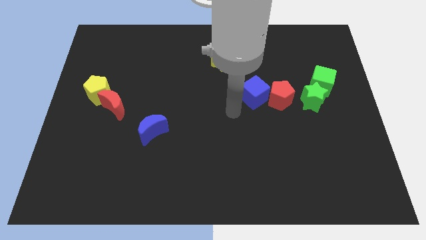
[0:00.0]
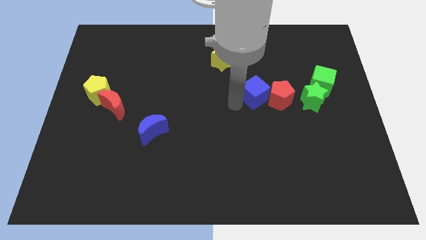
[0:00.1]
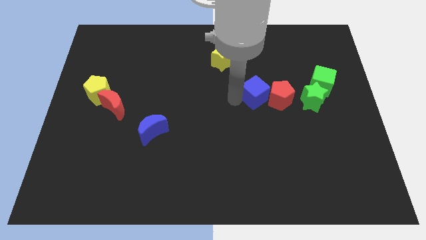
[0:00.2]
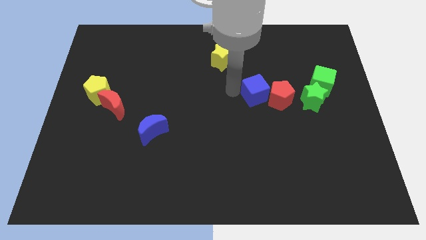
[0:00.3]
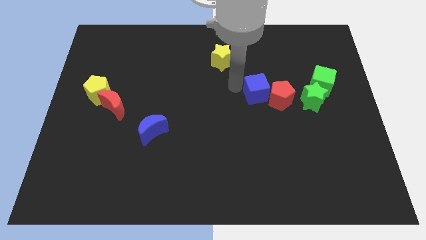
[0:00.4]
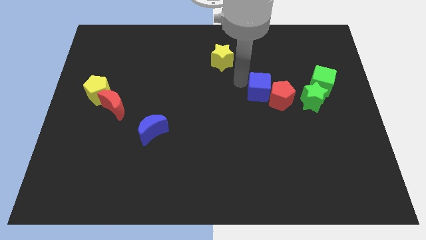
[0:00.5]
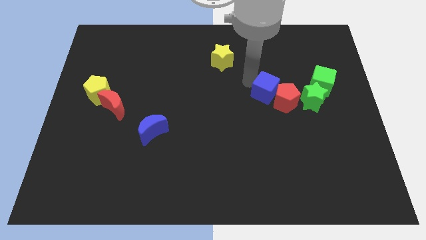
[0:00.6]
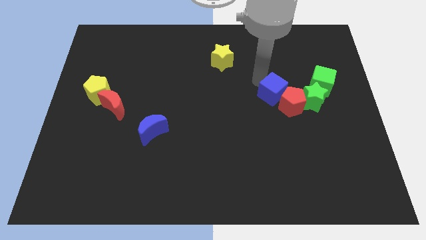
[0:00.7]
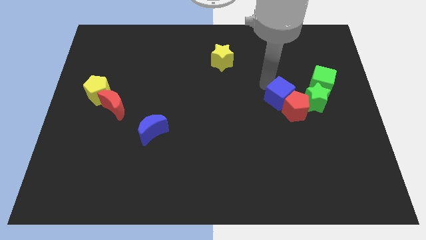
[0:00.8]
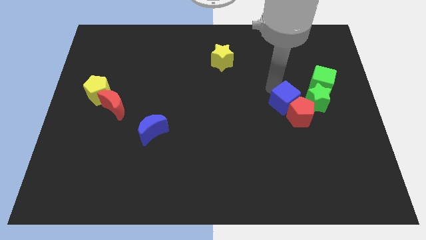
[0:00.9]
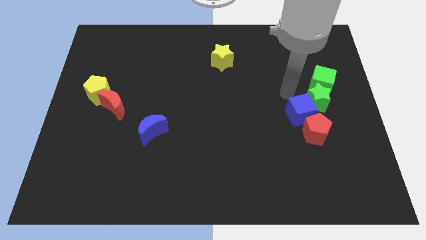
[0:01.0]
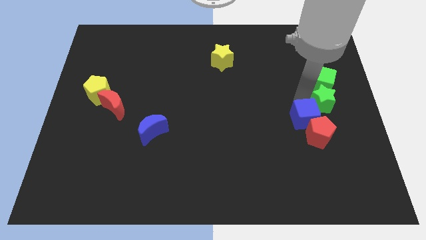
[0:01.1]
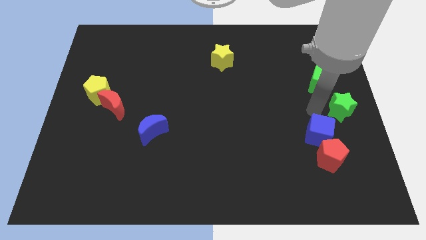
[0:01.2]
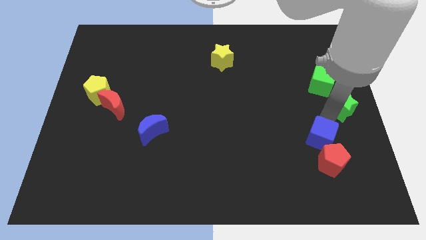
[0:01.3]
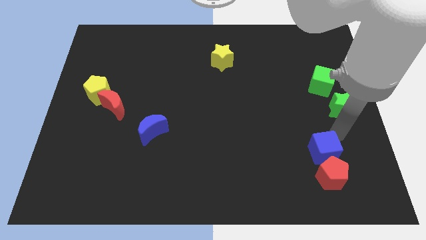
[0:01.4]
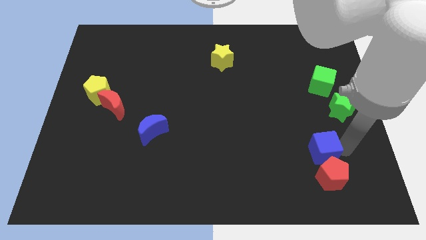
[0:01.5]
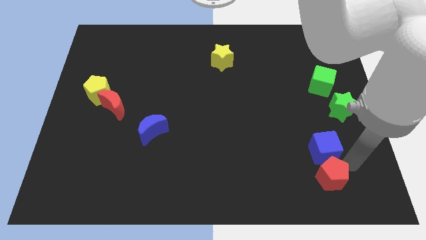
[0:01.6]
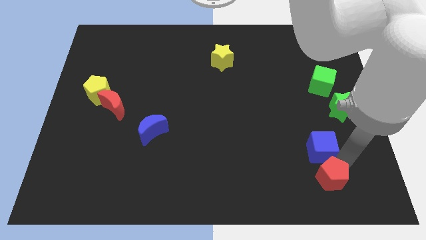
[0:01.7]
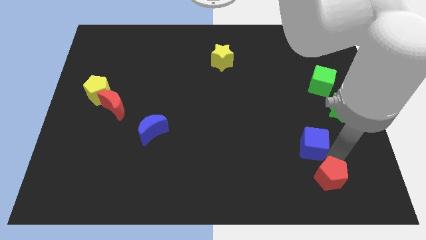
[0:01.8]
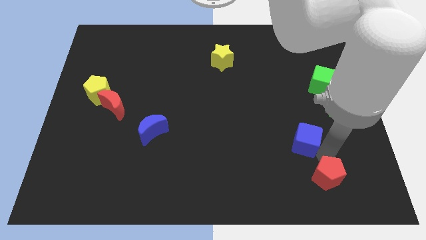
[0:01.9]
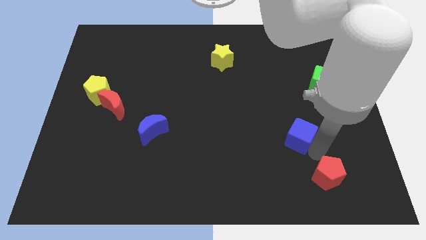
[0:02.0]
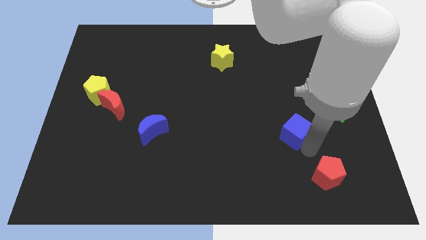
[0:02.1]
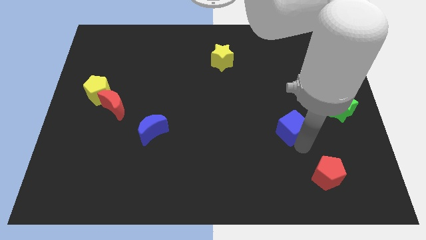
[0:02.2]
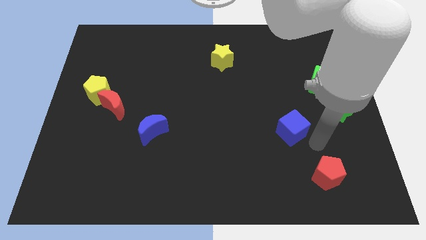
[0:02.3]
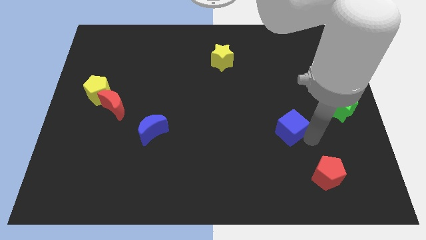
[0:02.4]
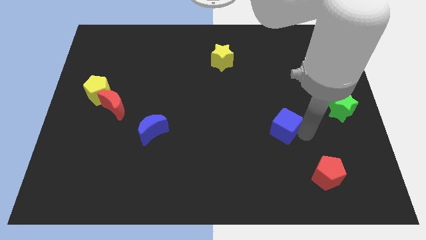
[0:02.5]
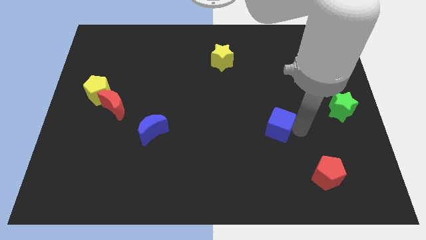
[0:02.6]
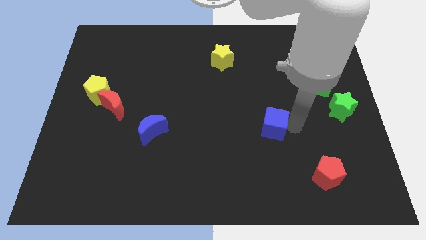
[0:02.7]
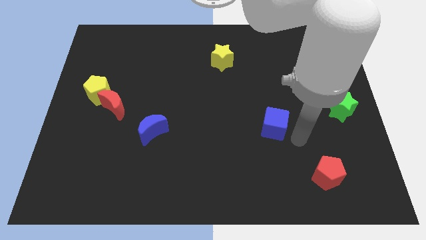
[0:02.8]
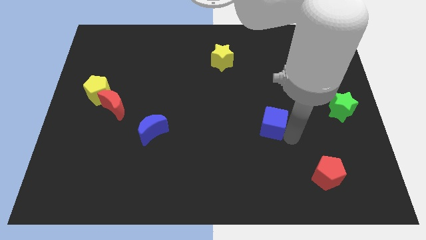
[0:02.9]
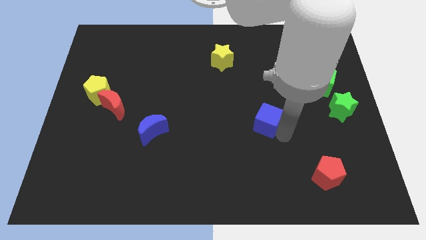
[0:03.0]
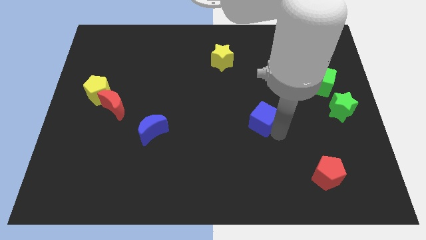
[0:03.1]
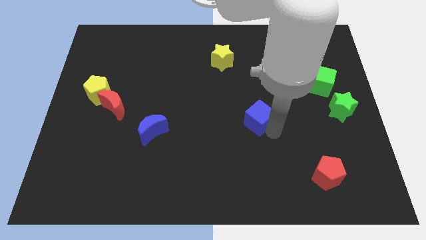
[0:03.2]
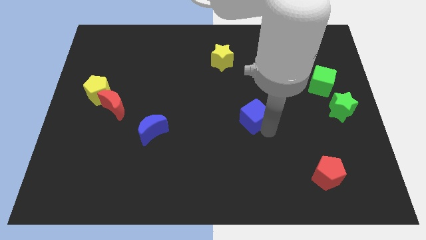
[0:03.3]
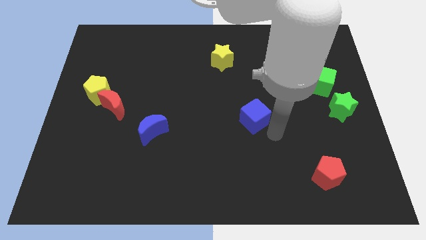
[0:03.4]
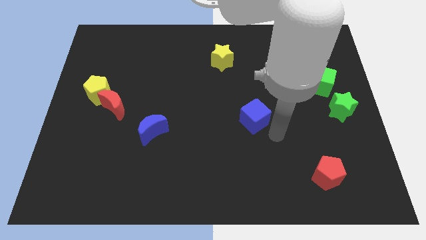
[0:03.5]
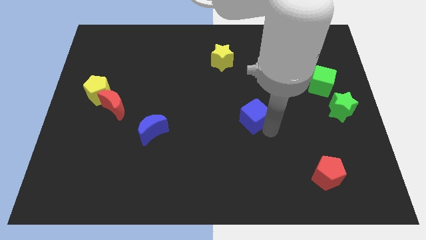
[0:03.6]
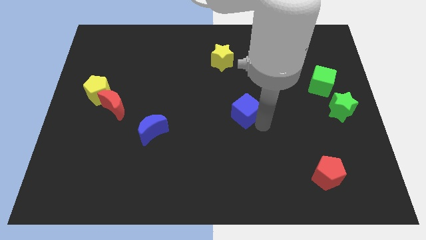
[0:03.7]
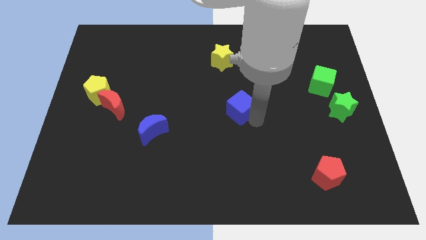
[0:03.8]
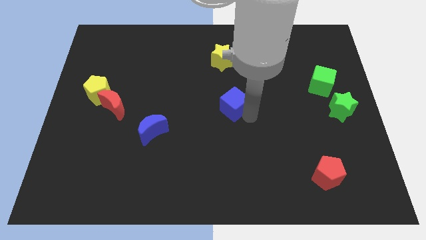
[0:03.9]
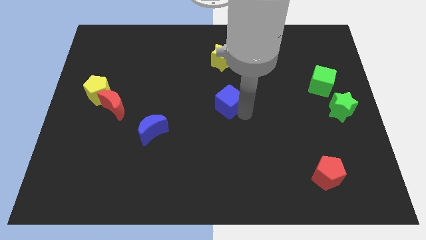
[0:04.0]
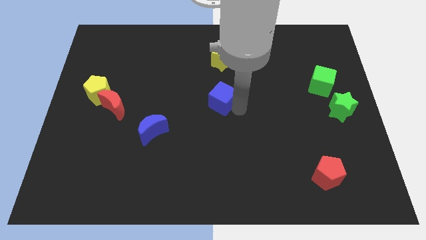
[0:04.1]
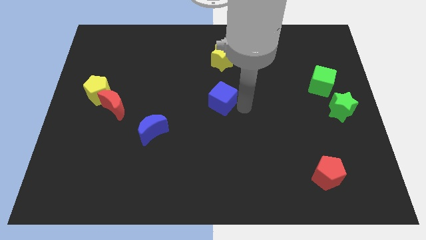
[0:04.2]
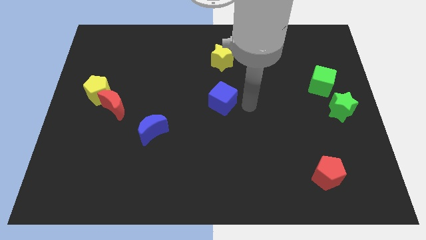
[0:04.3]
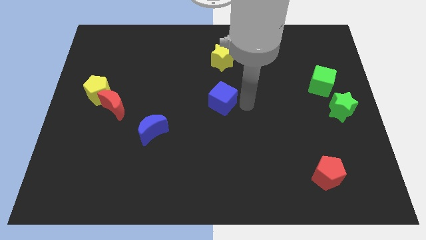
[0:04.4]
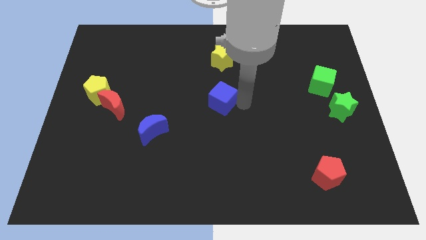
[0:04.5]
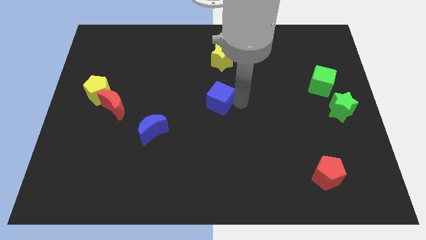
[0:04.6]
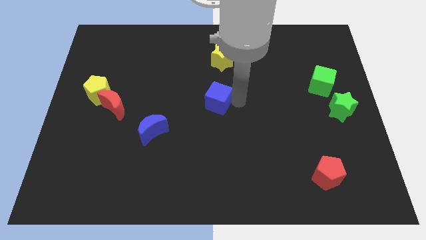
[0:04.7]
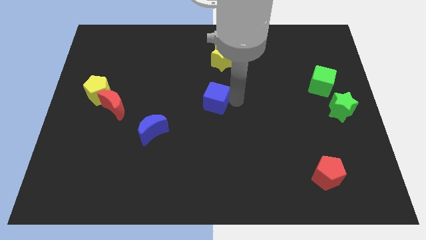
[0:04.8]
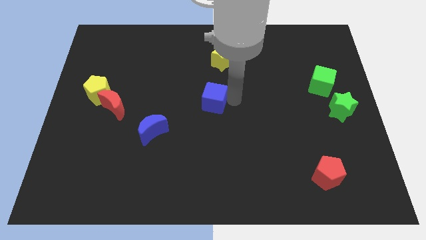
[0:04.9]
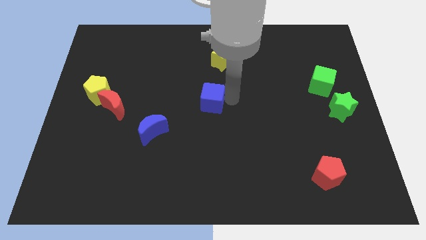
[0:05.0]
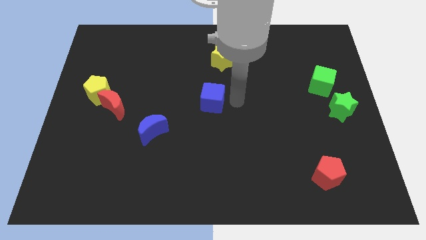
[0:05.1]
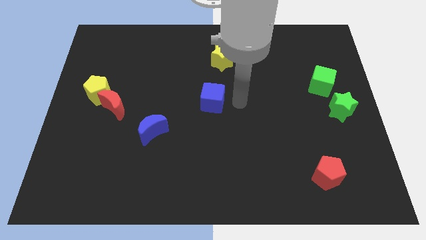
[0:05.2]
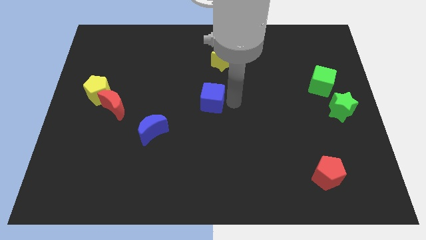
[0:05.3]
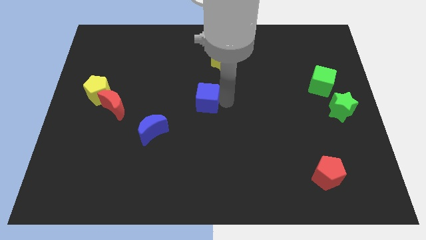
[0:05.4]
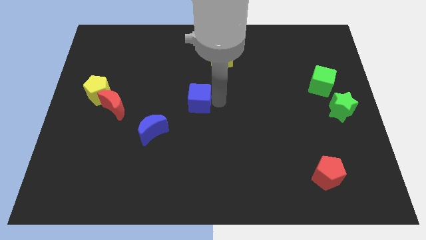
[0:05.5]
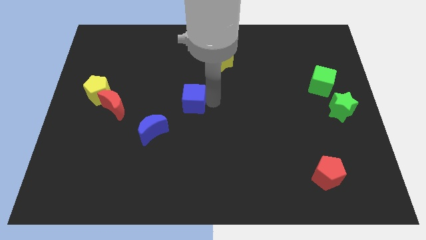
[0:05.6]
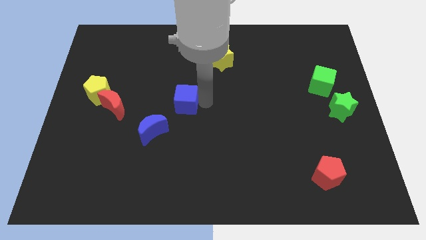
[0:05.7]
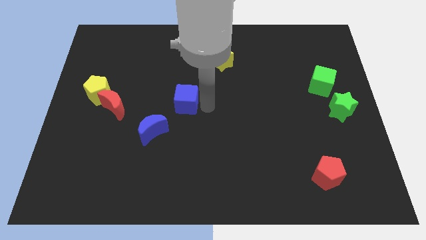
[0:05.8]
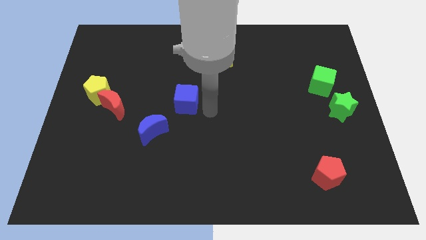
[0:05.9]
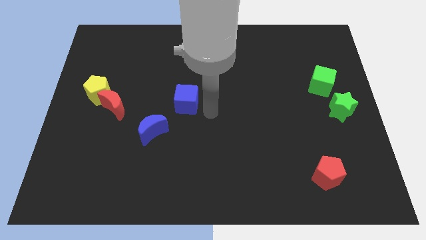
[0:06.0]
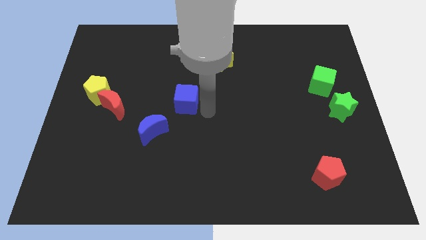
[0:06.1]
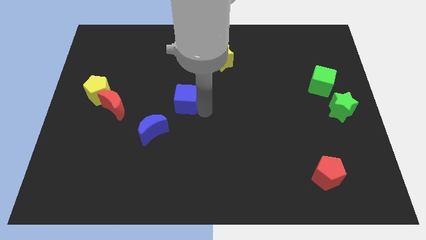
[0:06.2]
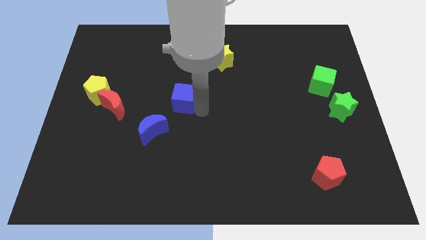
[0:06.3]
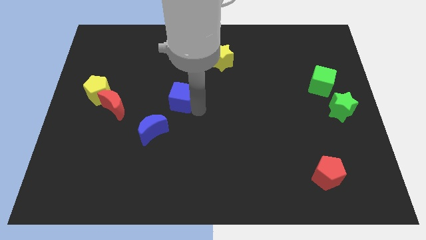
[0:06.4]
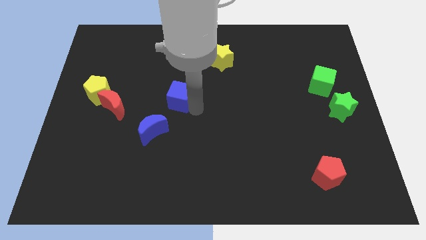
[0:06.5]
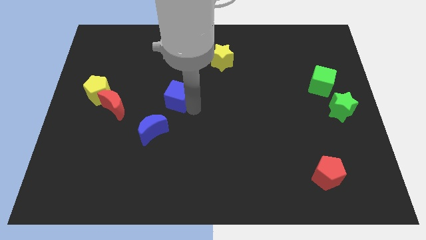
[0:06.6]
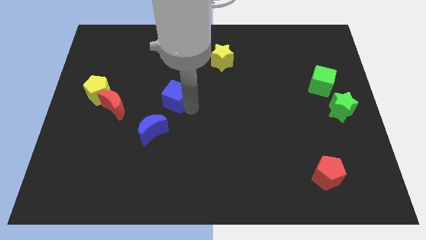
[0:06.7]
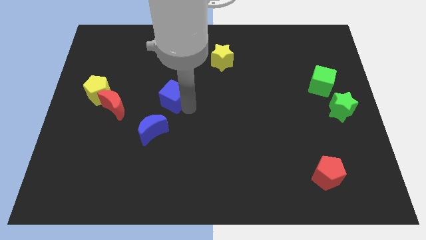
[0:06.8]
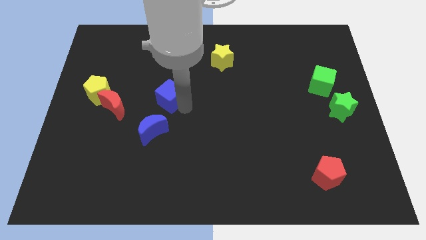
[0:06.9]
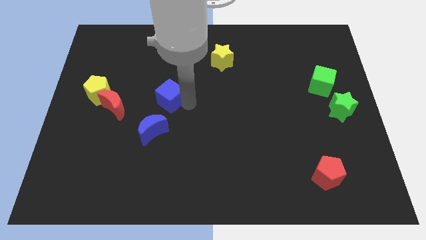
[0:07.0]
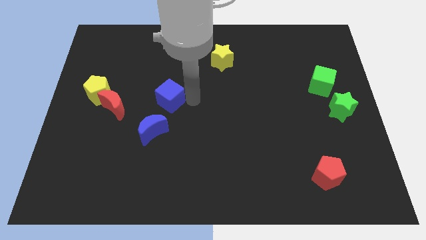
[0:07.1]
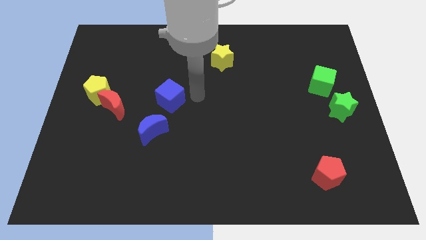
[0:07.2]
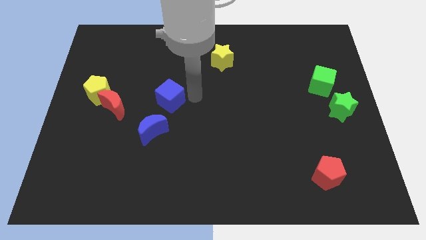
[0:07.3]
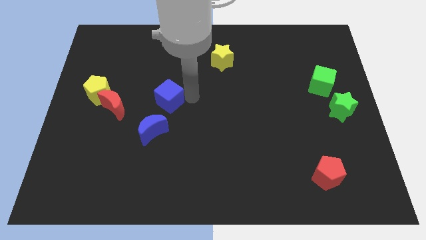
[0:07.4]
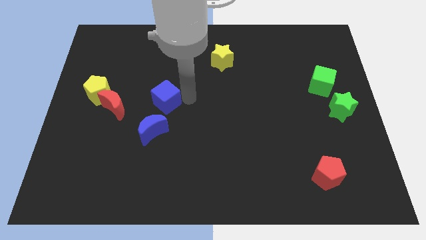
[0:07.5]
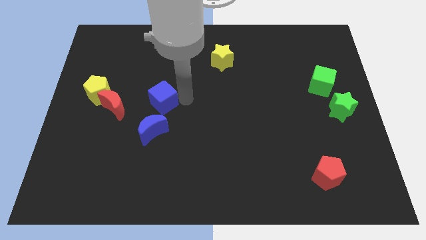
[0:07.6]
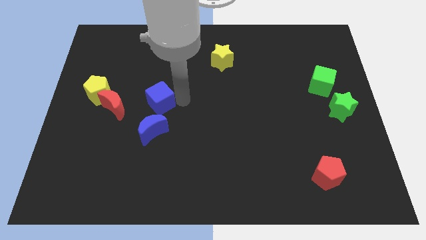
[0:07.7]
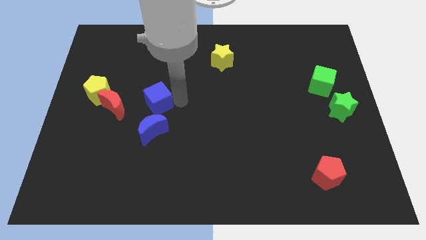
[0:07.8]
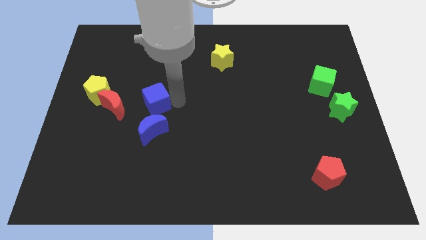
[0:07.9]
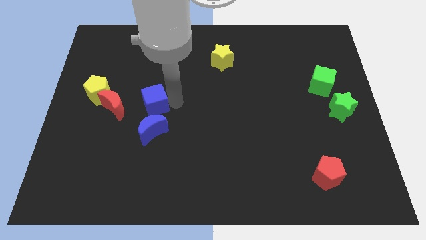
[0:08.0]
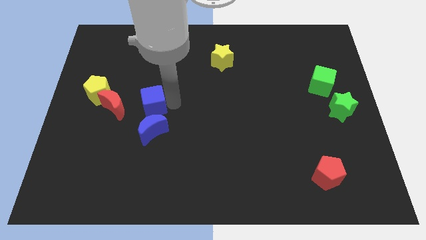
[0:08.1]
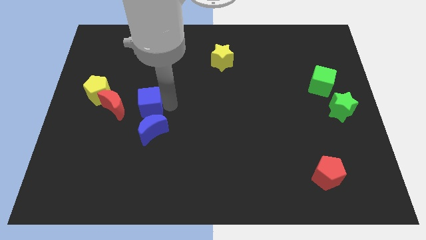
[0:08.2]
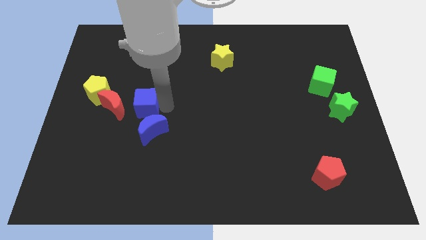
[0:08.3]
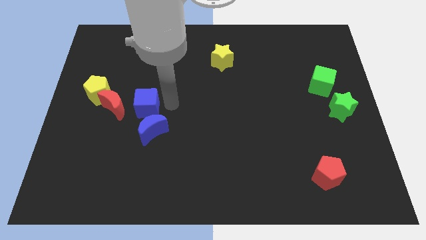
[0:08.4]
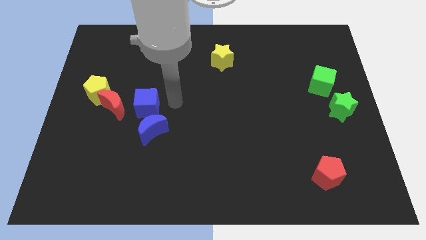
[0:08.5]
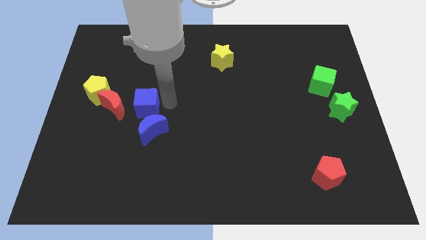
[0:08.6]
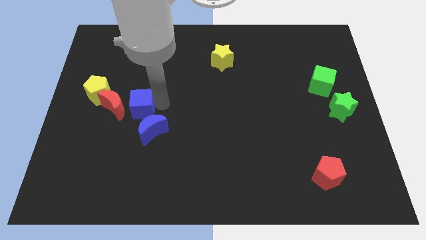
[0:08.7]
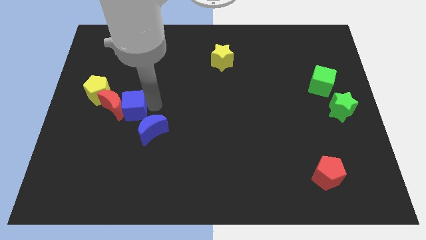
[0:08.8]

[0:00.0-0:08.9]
push the blue cube to the bottom right side of the yellow pentagon
